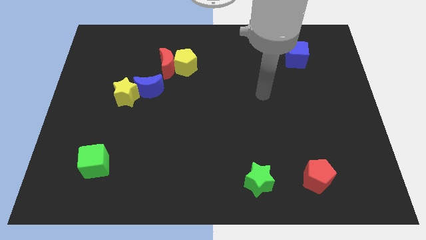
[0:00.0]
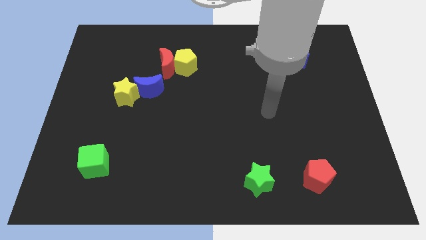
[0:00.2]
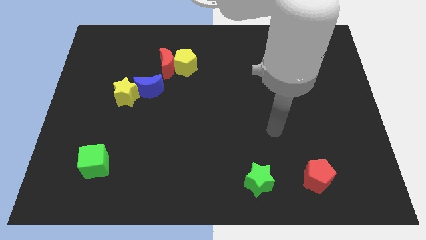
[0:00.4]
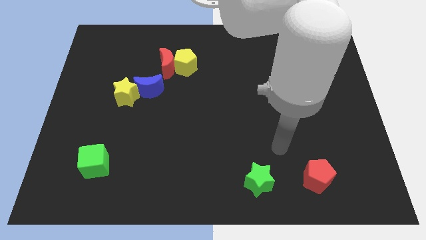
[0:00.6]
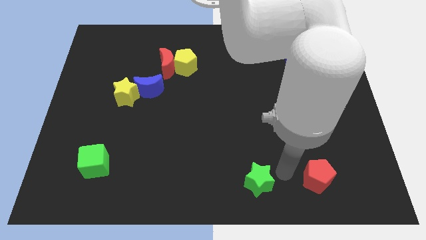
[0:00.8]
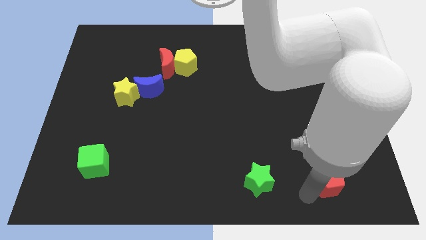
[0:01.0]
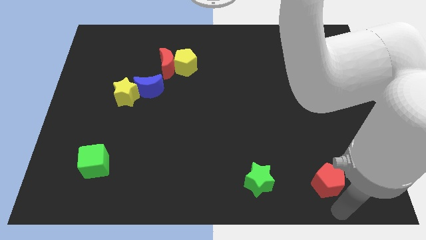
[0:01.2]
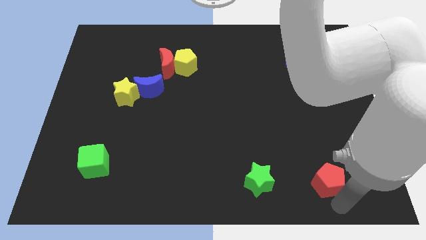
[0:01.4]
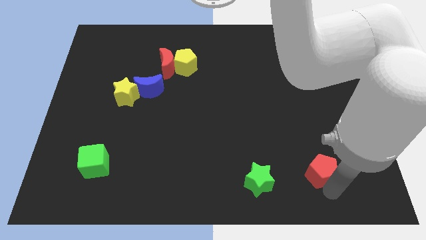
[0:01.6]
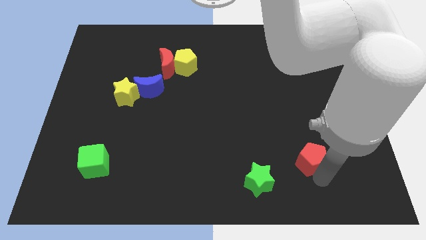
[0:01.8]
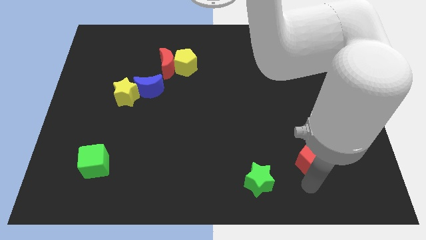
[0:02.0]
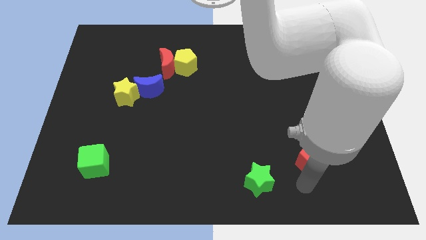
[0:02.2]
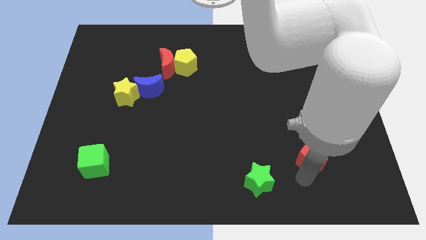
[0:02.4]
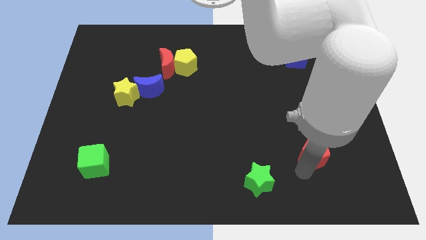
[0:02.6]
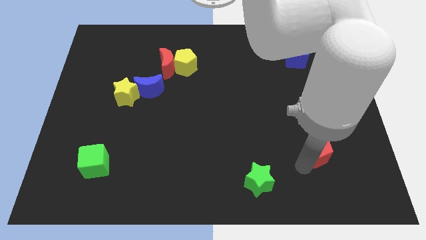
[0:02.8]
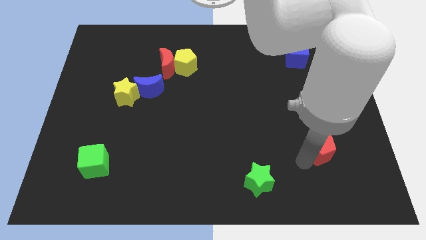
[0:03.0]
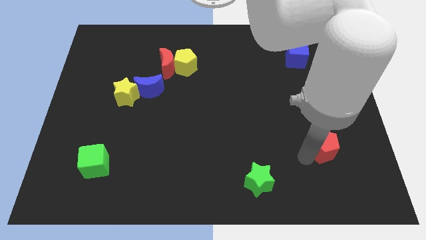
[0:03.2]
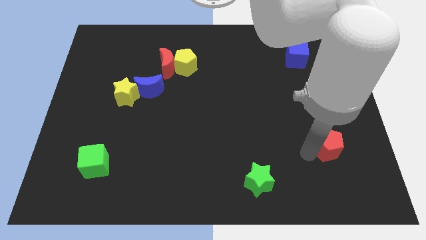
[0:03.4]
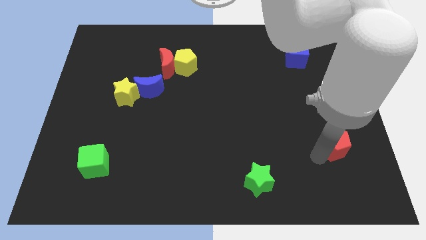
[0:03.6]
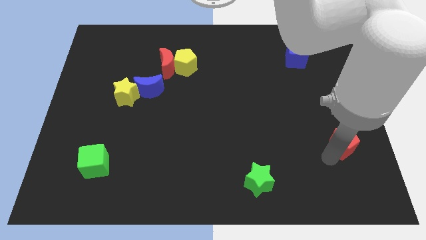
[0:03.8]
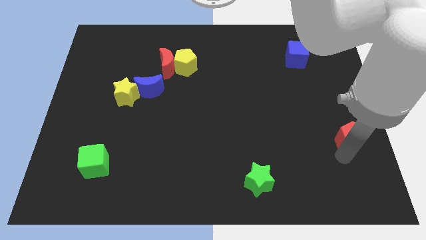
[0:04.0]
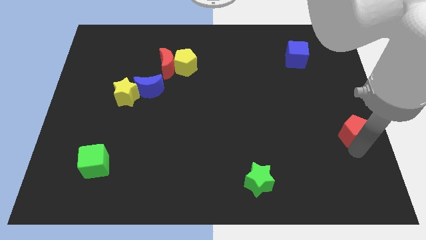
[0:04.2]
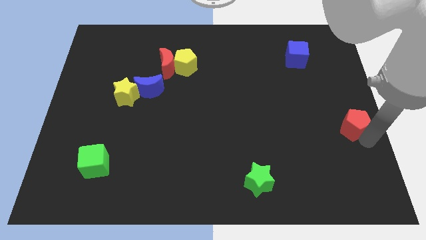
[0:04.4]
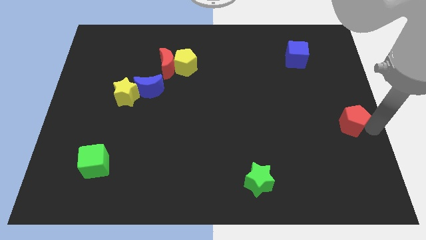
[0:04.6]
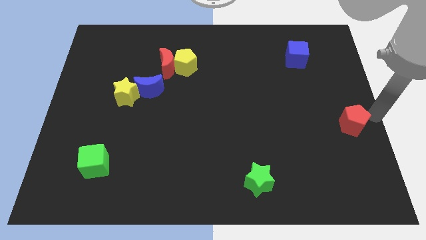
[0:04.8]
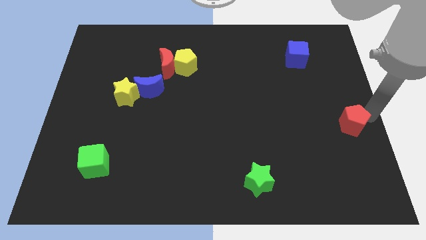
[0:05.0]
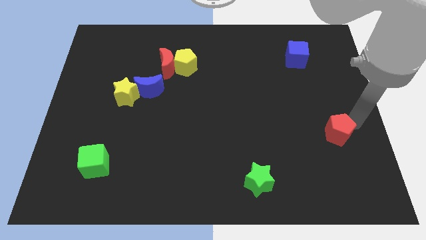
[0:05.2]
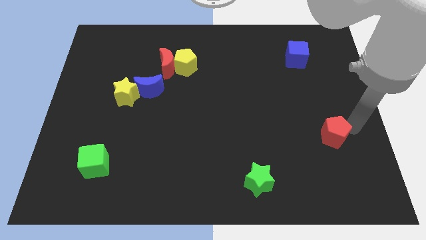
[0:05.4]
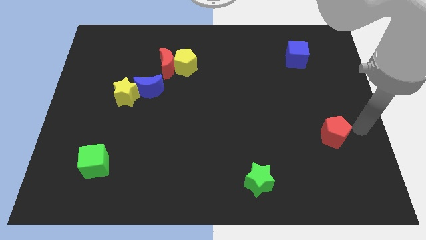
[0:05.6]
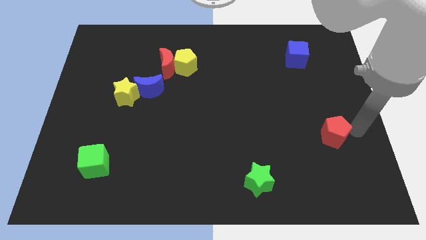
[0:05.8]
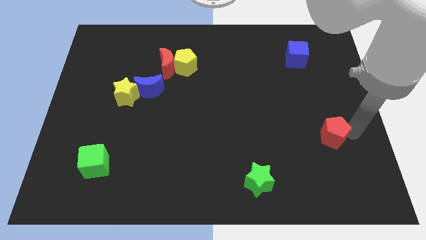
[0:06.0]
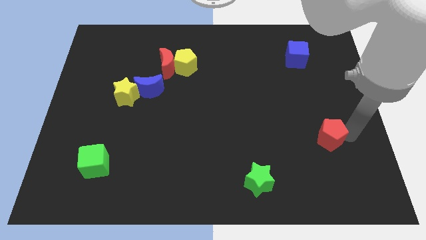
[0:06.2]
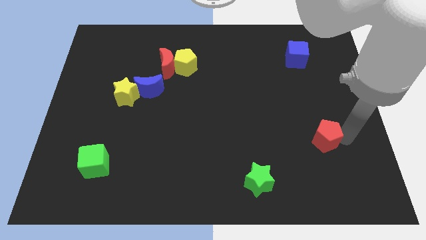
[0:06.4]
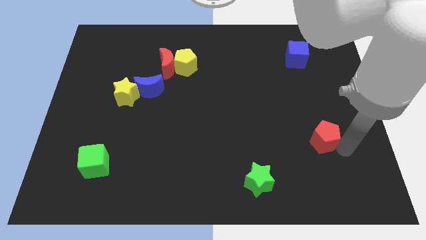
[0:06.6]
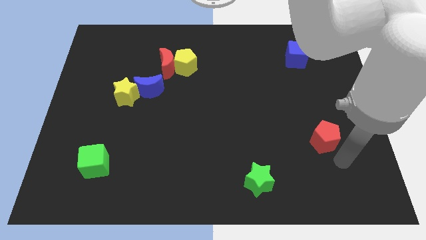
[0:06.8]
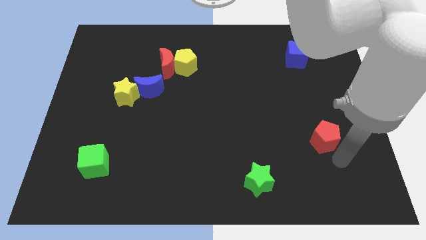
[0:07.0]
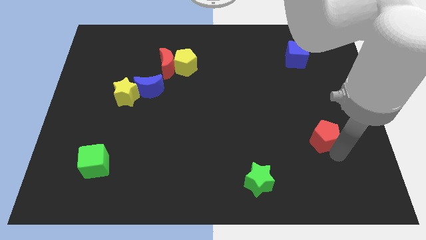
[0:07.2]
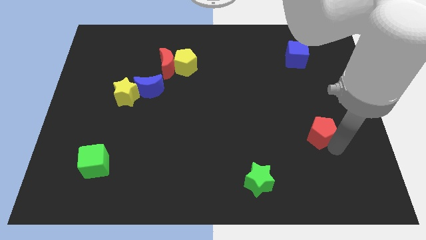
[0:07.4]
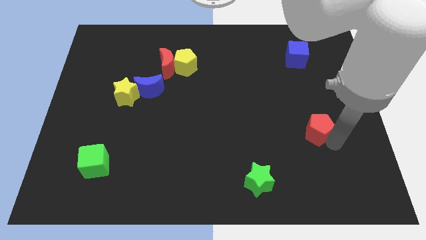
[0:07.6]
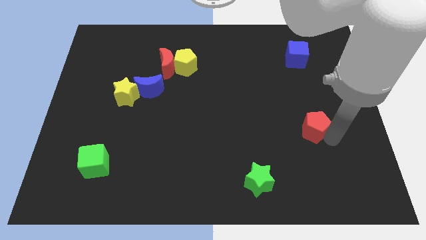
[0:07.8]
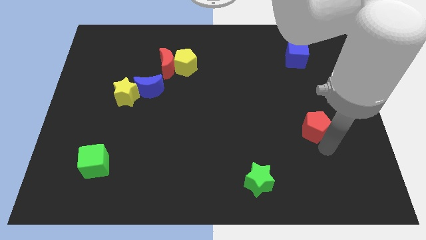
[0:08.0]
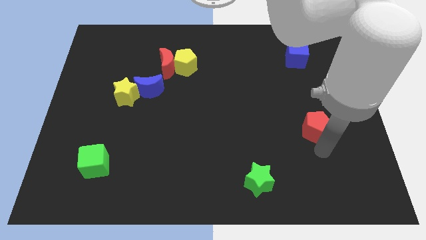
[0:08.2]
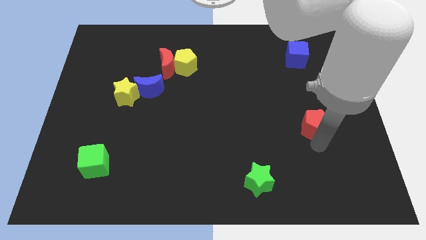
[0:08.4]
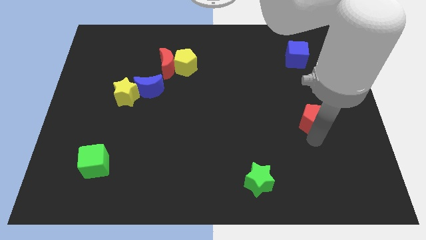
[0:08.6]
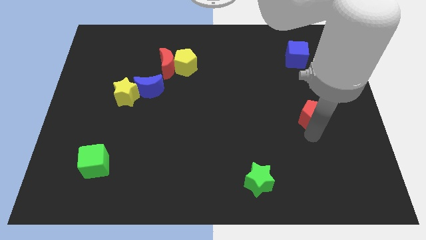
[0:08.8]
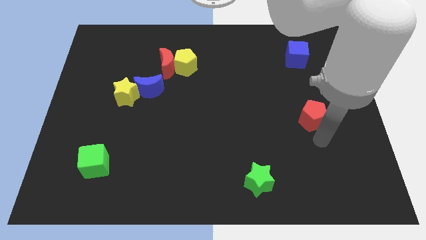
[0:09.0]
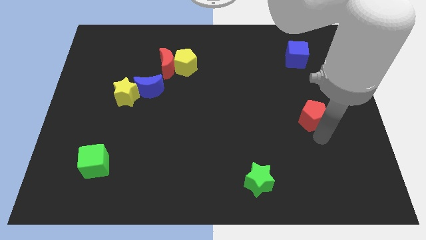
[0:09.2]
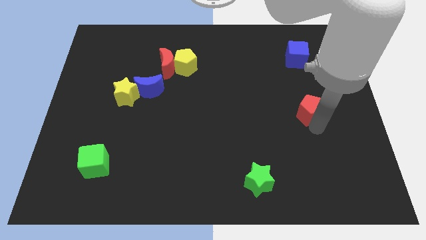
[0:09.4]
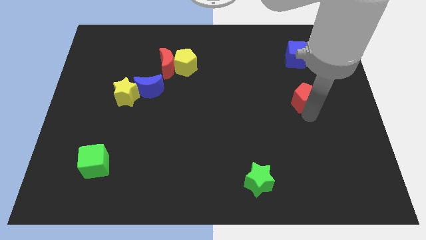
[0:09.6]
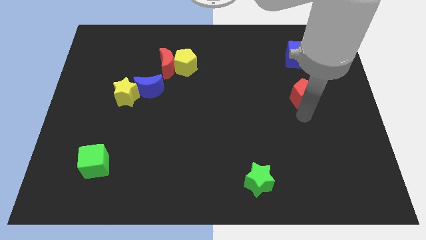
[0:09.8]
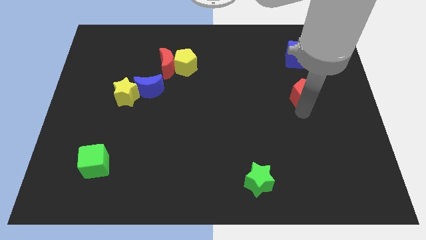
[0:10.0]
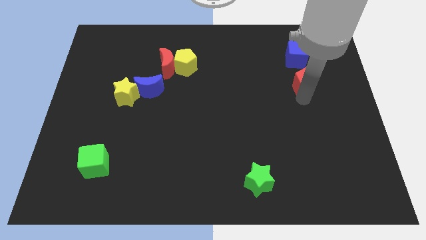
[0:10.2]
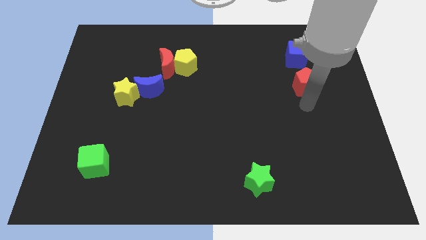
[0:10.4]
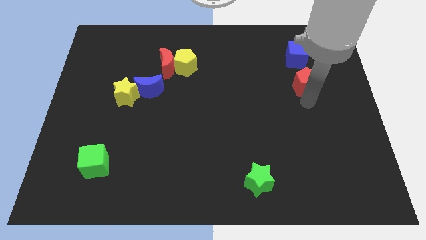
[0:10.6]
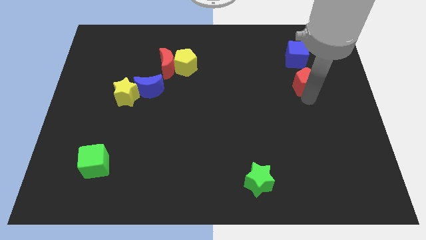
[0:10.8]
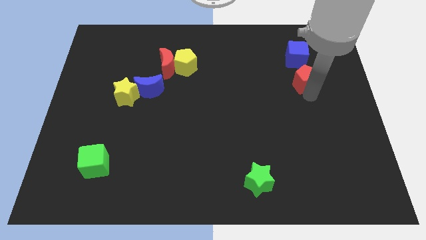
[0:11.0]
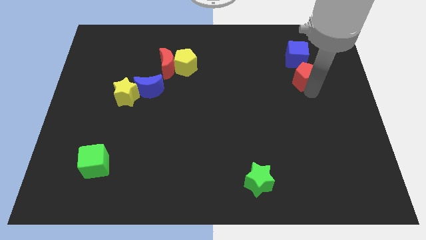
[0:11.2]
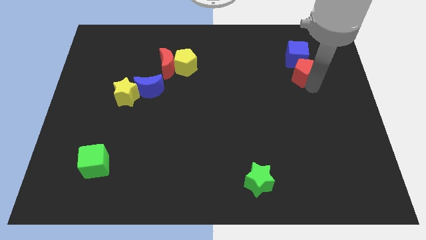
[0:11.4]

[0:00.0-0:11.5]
move the red pentagon to the blue cube

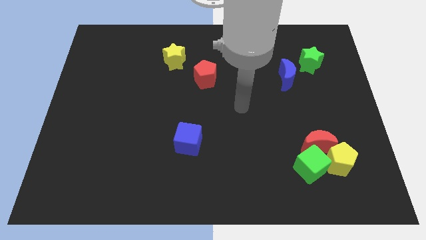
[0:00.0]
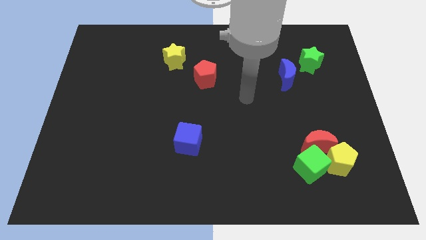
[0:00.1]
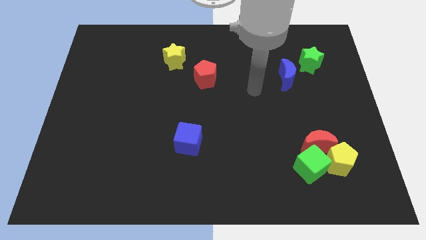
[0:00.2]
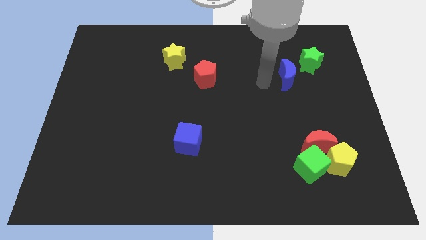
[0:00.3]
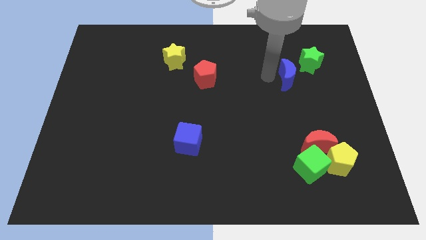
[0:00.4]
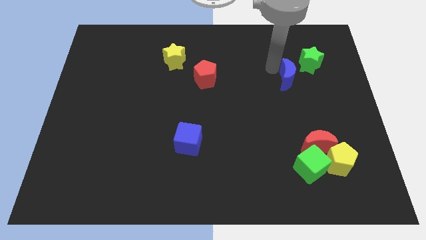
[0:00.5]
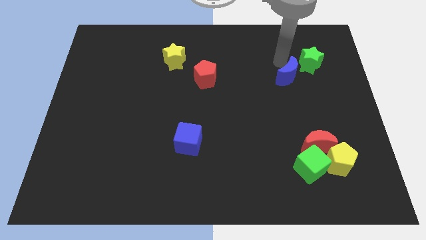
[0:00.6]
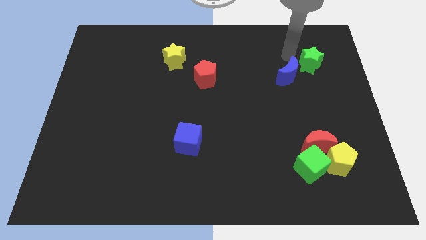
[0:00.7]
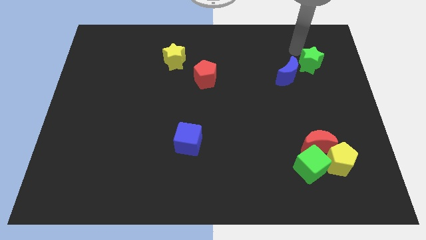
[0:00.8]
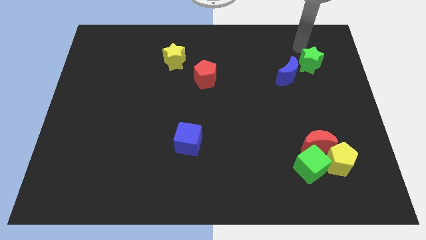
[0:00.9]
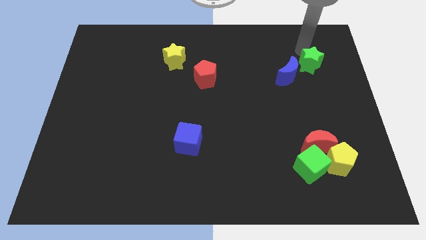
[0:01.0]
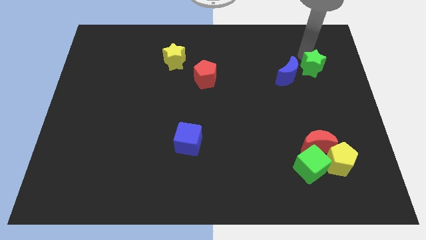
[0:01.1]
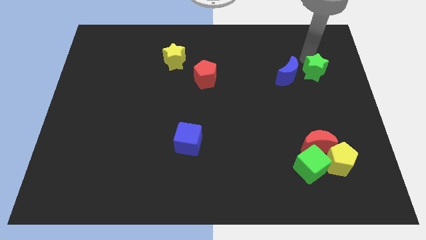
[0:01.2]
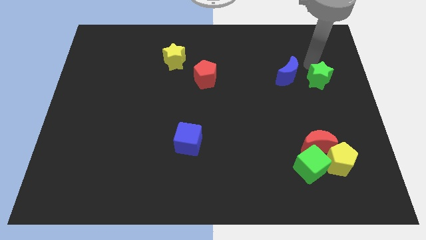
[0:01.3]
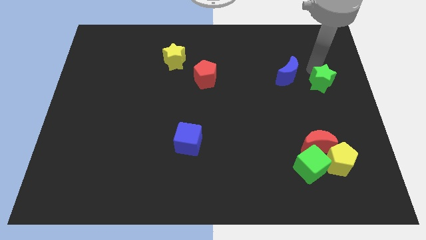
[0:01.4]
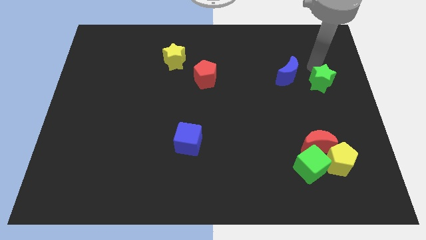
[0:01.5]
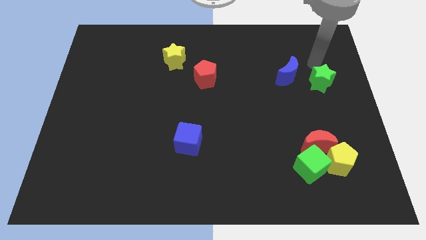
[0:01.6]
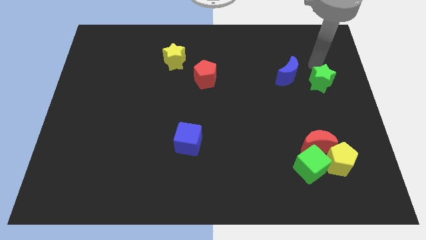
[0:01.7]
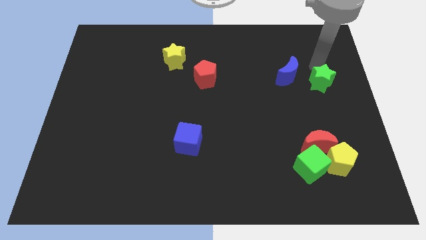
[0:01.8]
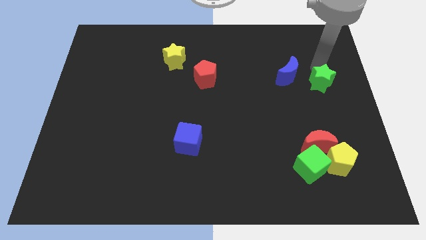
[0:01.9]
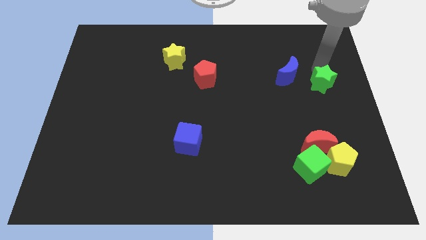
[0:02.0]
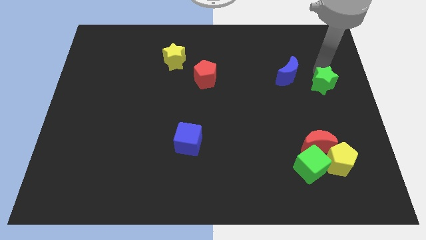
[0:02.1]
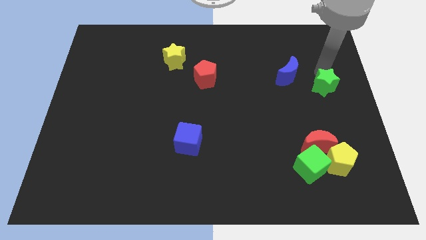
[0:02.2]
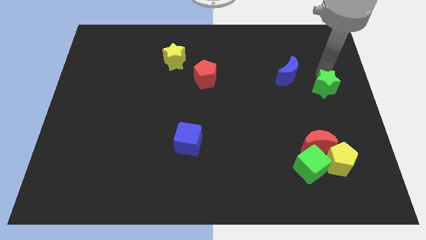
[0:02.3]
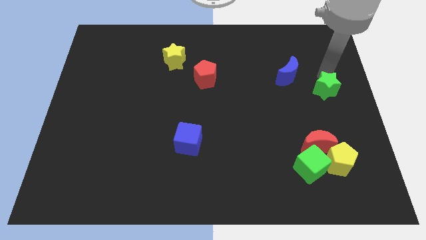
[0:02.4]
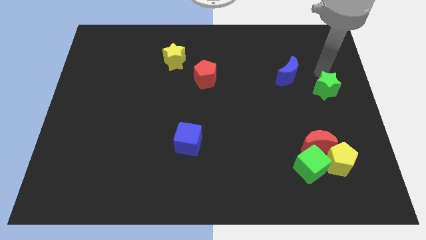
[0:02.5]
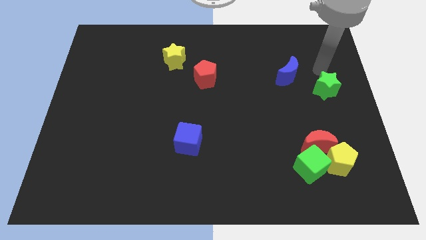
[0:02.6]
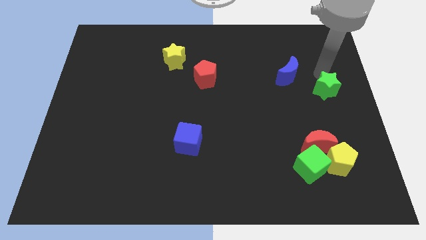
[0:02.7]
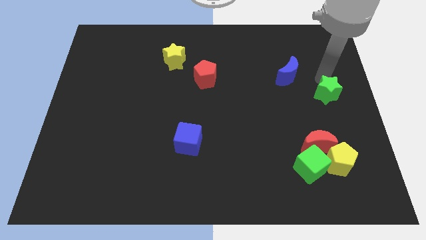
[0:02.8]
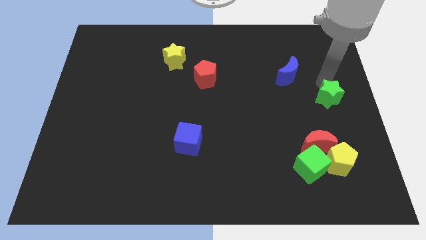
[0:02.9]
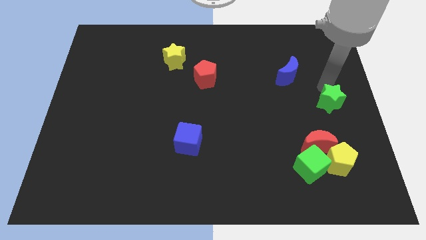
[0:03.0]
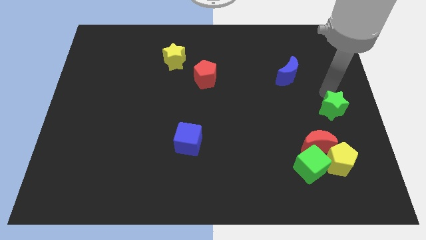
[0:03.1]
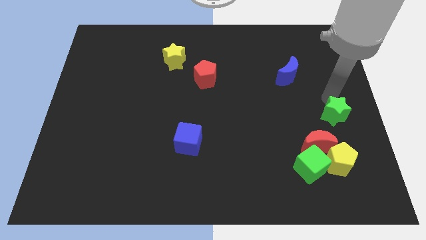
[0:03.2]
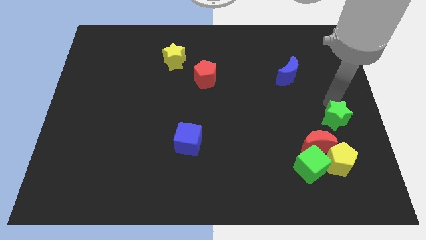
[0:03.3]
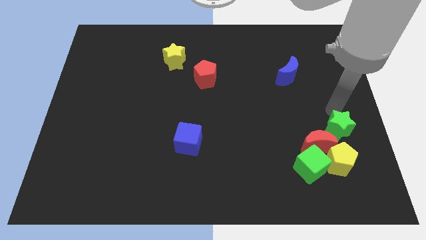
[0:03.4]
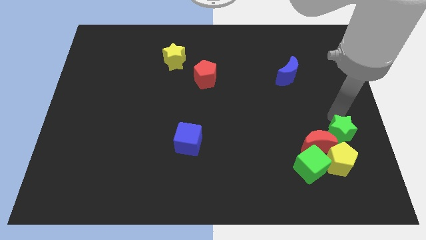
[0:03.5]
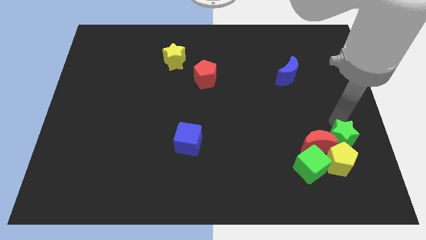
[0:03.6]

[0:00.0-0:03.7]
move the green star towards the yellow pentagon
